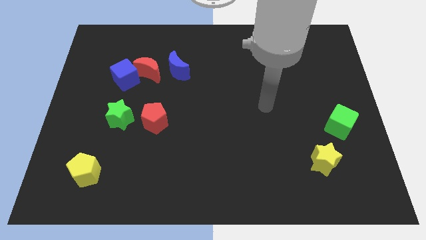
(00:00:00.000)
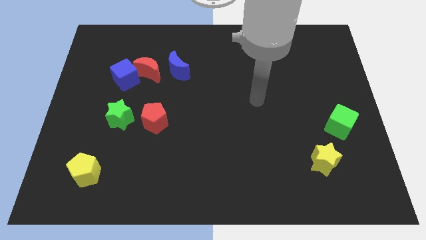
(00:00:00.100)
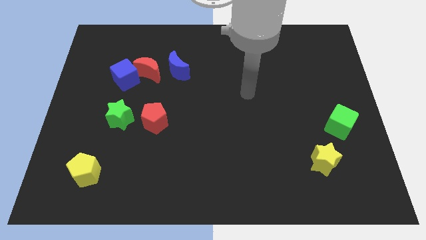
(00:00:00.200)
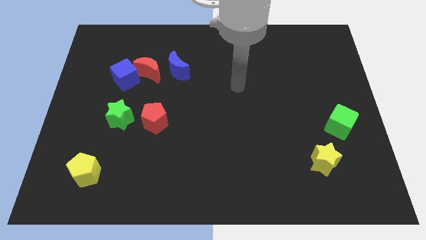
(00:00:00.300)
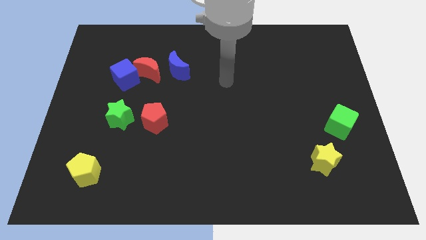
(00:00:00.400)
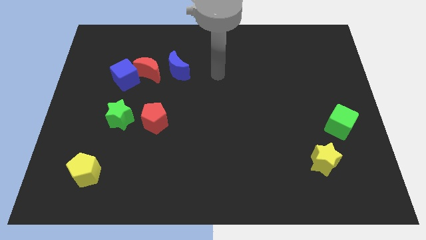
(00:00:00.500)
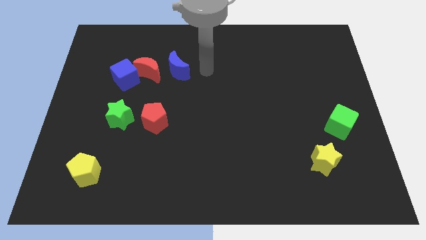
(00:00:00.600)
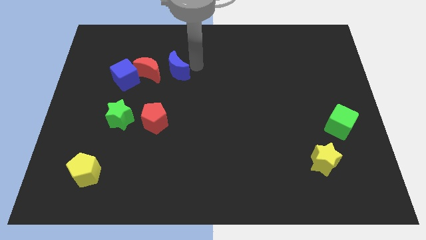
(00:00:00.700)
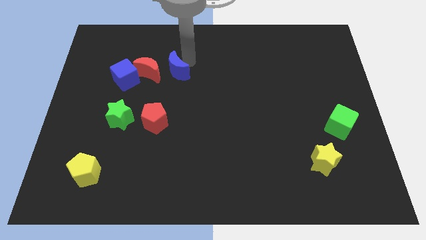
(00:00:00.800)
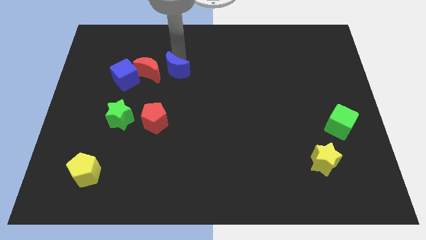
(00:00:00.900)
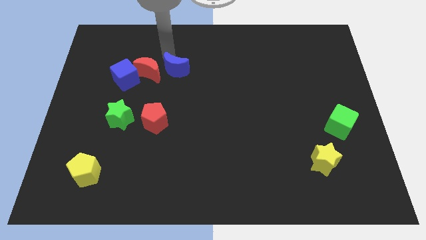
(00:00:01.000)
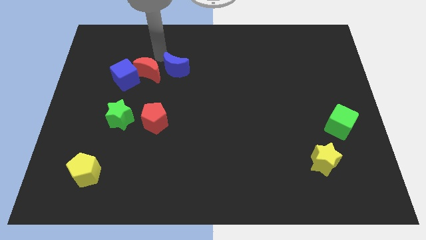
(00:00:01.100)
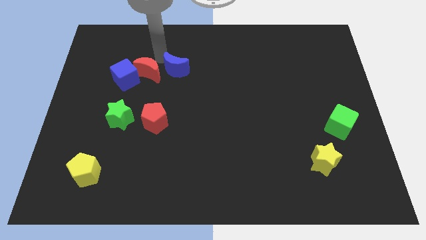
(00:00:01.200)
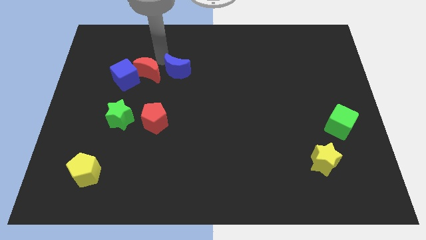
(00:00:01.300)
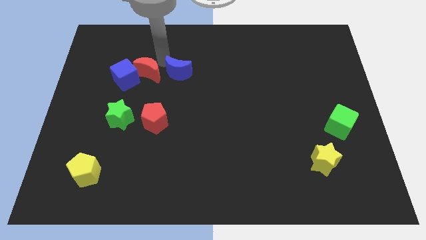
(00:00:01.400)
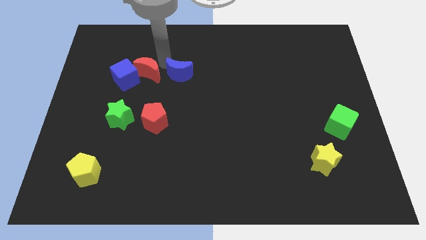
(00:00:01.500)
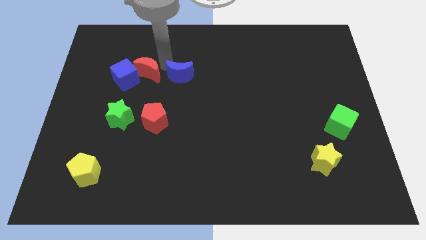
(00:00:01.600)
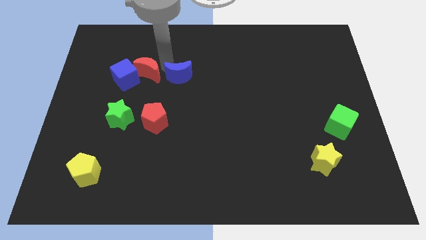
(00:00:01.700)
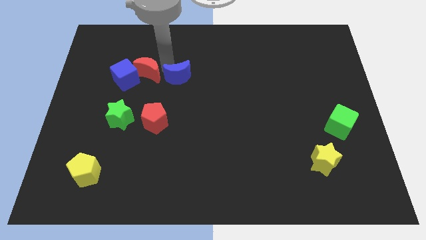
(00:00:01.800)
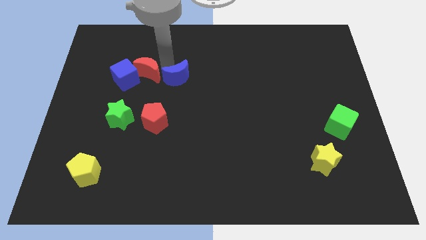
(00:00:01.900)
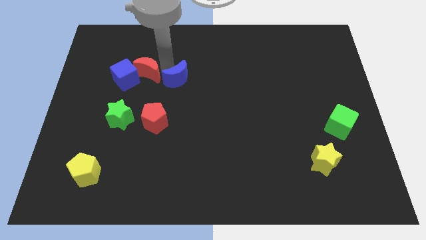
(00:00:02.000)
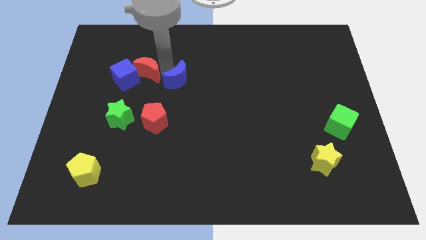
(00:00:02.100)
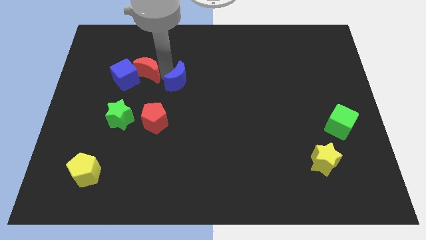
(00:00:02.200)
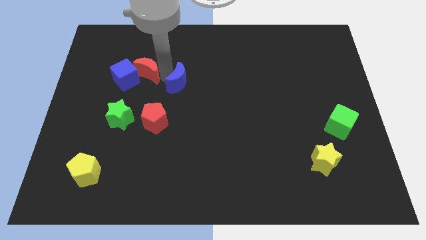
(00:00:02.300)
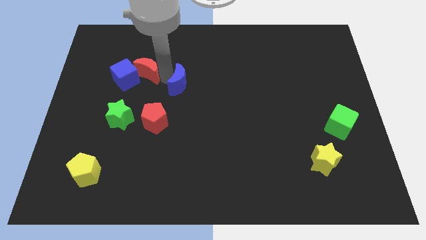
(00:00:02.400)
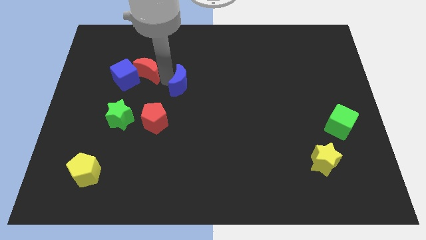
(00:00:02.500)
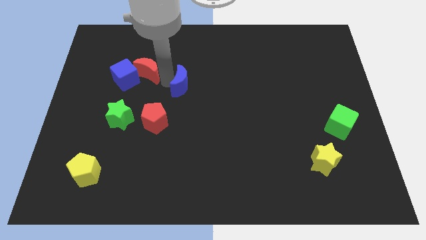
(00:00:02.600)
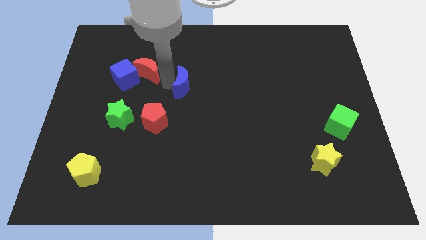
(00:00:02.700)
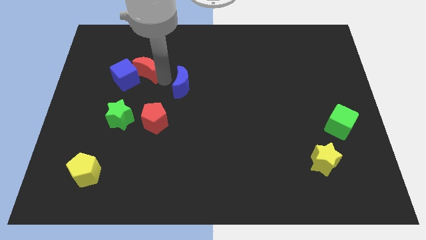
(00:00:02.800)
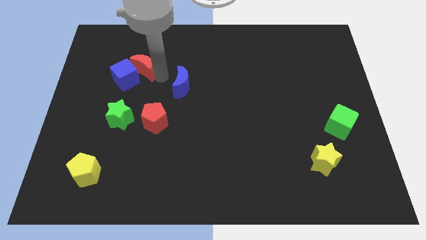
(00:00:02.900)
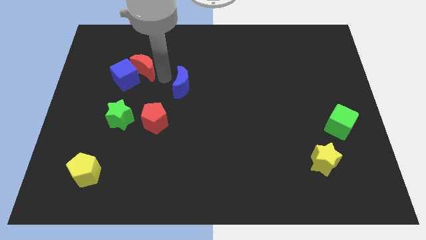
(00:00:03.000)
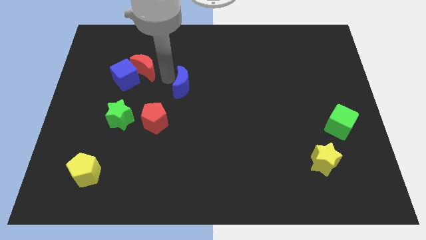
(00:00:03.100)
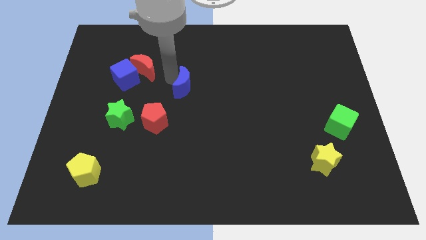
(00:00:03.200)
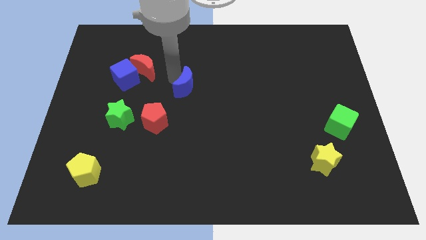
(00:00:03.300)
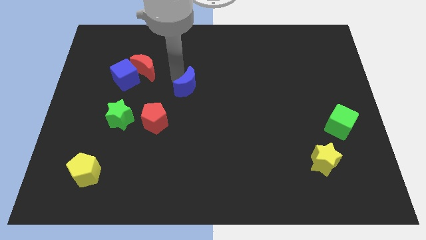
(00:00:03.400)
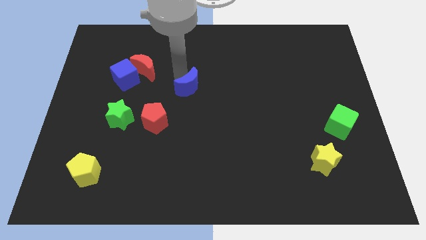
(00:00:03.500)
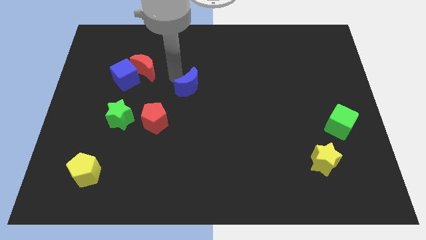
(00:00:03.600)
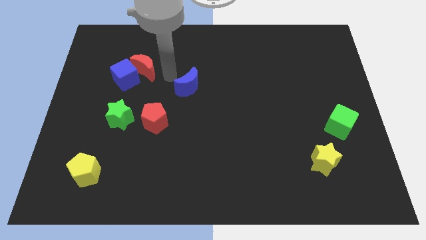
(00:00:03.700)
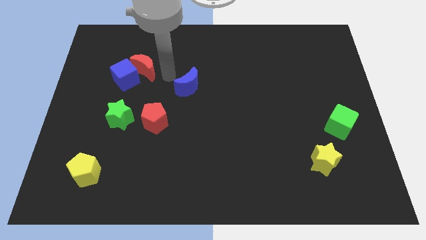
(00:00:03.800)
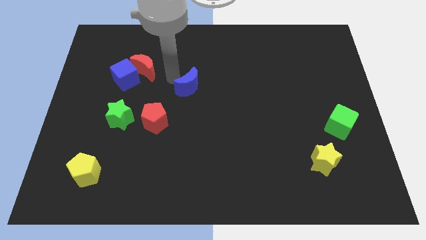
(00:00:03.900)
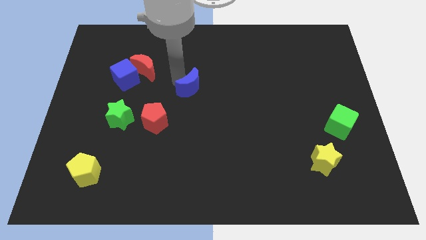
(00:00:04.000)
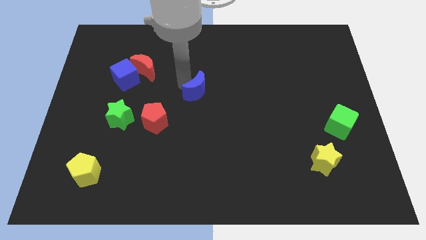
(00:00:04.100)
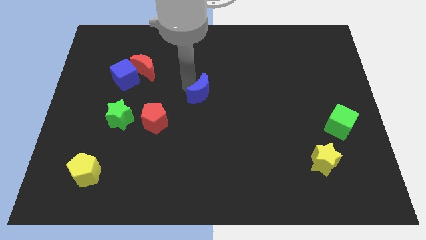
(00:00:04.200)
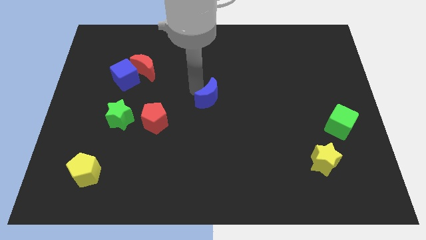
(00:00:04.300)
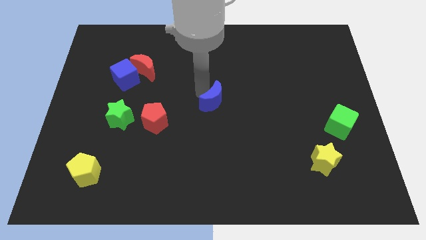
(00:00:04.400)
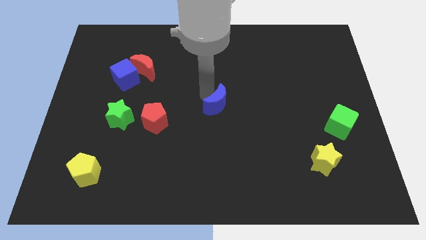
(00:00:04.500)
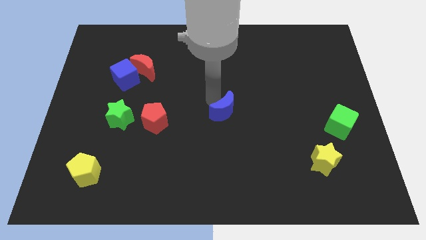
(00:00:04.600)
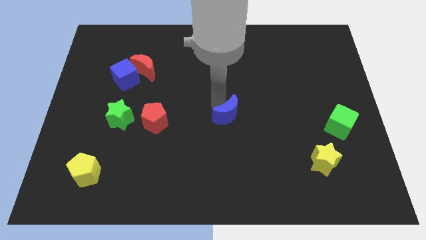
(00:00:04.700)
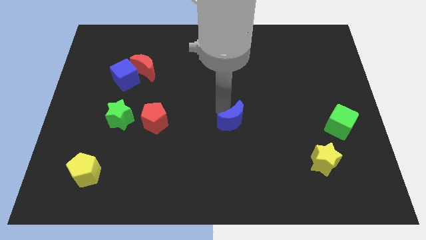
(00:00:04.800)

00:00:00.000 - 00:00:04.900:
slide the blue moon down and right diagonally

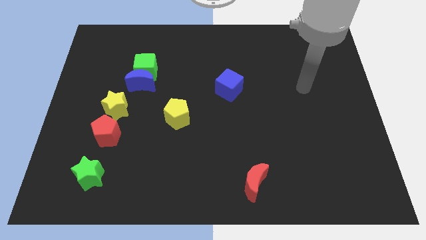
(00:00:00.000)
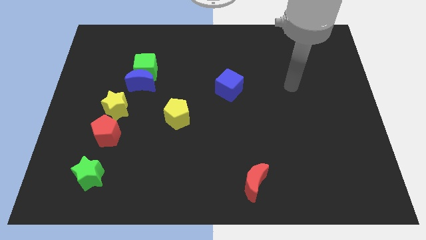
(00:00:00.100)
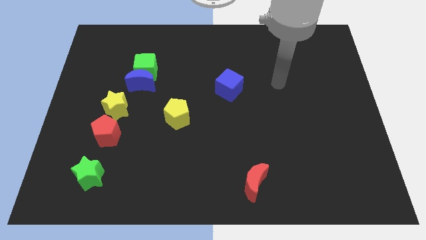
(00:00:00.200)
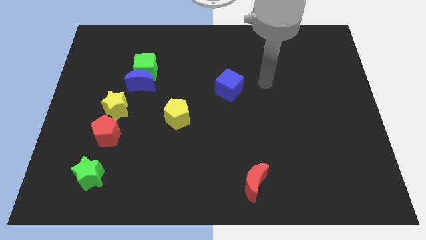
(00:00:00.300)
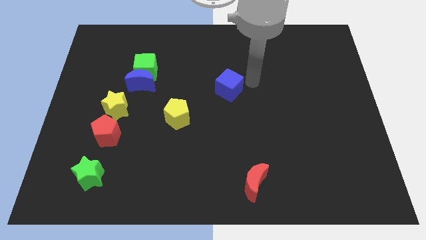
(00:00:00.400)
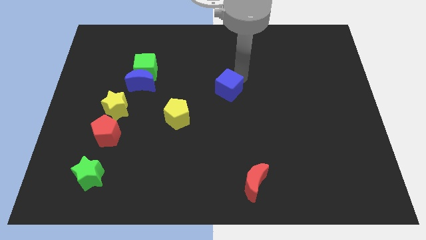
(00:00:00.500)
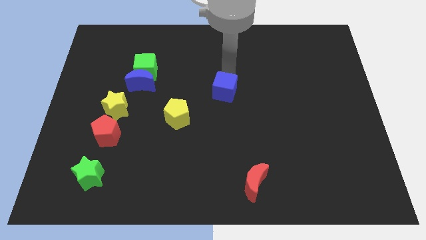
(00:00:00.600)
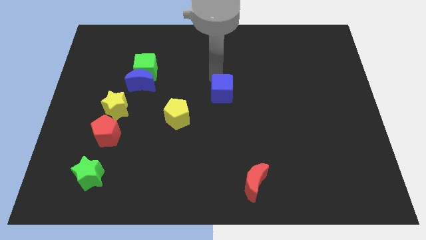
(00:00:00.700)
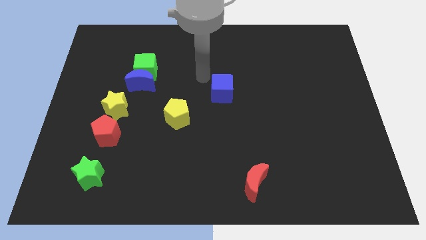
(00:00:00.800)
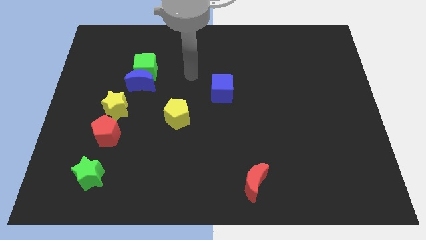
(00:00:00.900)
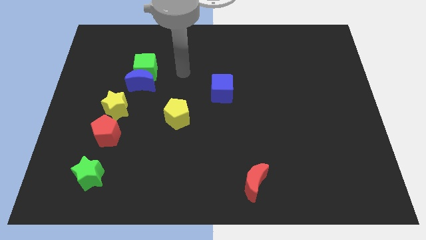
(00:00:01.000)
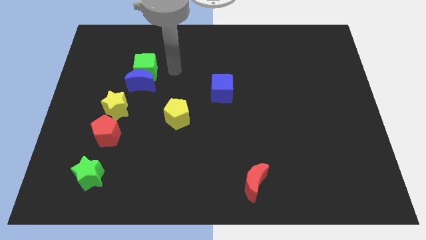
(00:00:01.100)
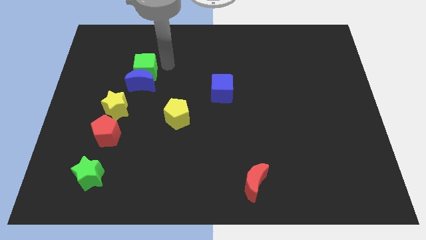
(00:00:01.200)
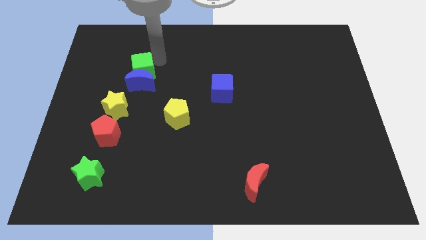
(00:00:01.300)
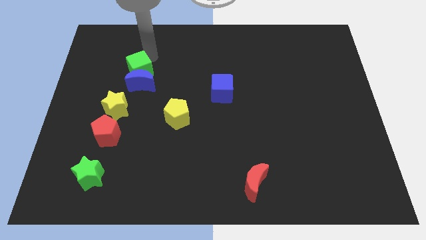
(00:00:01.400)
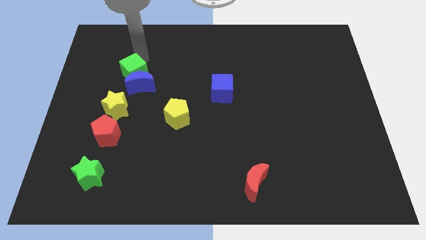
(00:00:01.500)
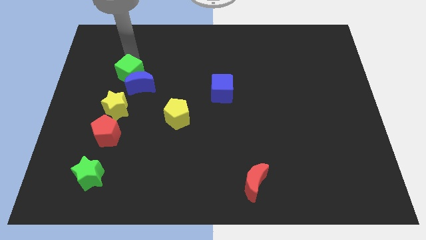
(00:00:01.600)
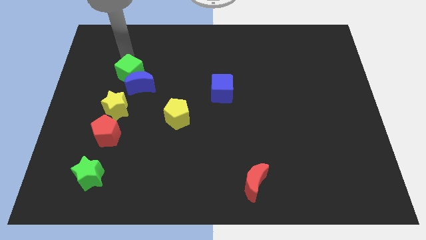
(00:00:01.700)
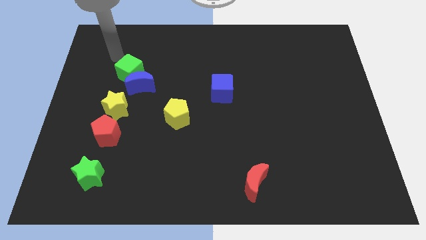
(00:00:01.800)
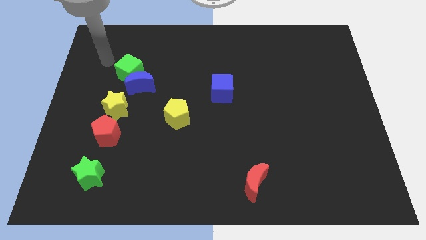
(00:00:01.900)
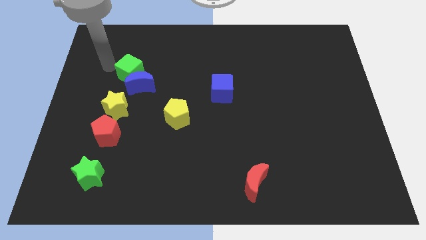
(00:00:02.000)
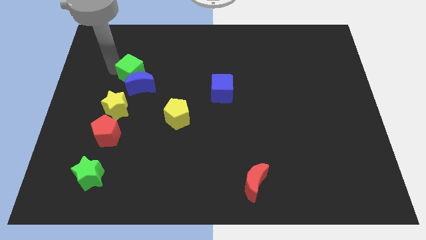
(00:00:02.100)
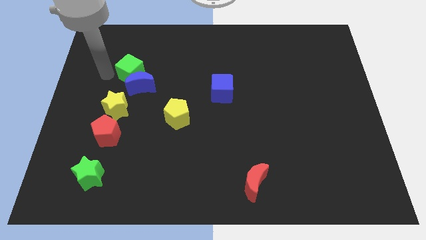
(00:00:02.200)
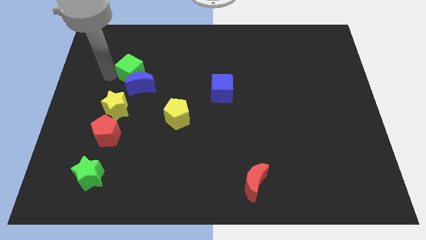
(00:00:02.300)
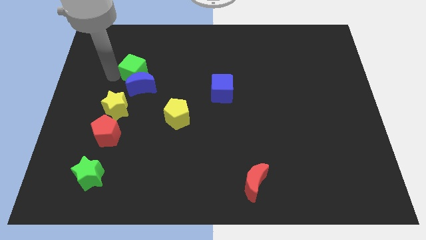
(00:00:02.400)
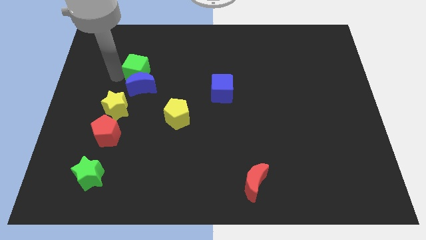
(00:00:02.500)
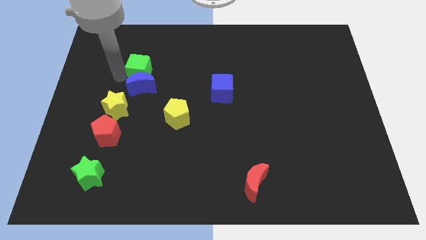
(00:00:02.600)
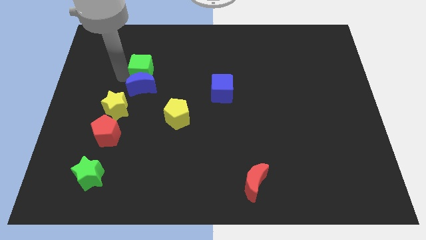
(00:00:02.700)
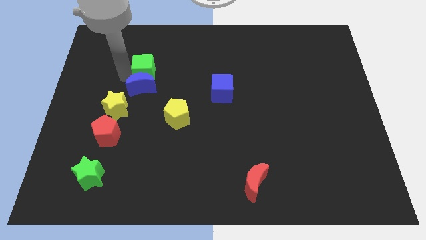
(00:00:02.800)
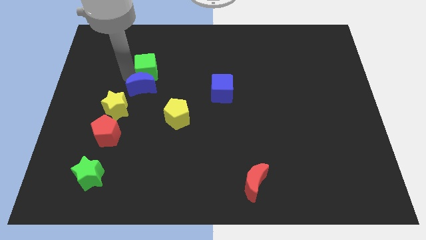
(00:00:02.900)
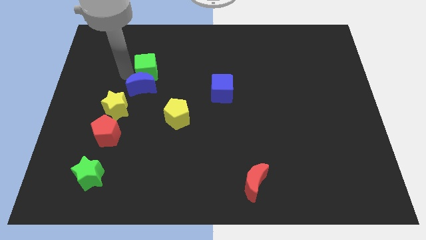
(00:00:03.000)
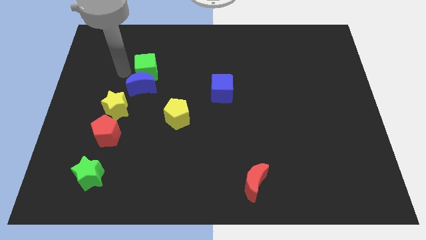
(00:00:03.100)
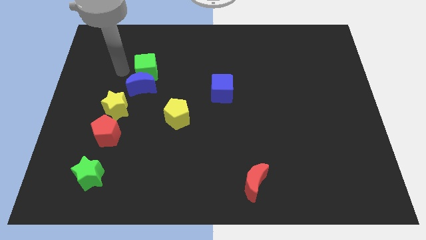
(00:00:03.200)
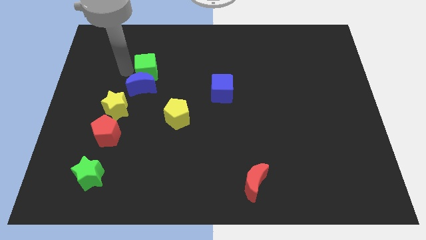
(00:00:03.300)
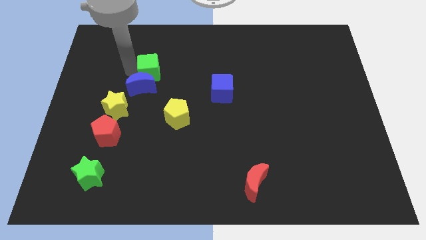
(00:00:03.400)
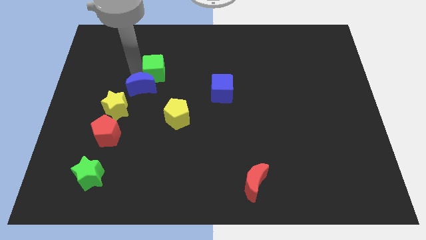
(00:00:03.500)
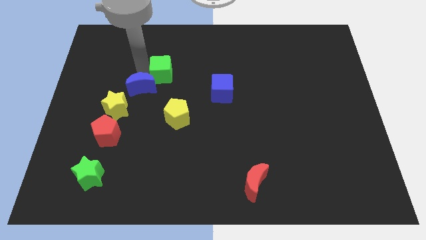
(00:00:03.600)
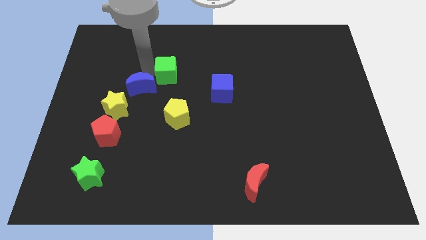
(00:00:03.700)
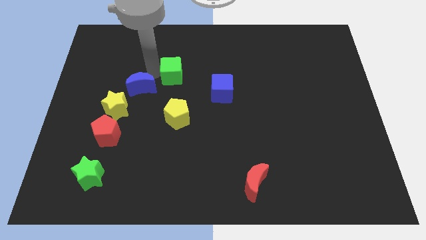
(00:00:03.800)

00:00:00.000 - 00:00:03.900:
push the green cube somewhat to the right
